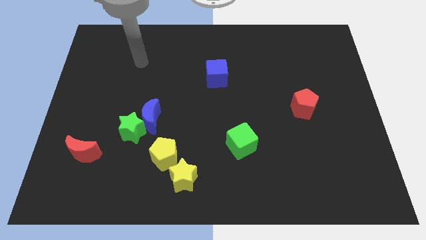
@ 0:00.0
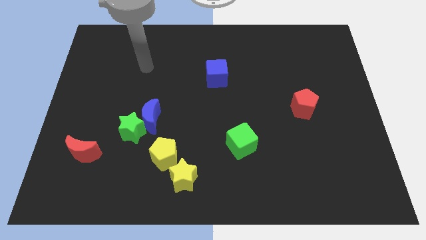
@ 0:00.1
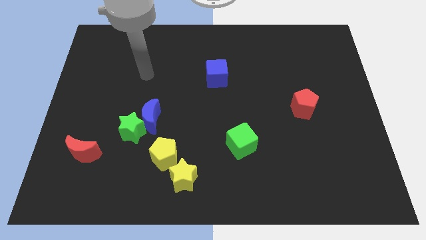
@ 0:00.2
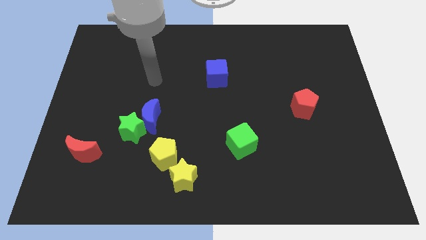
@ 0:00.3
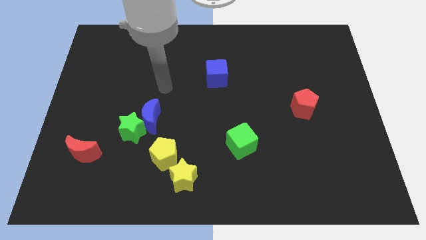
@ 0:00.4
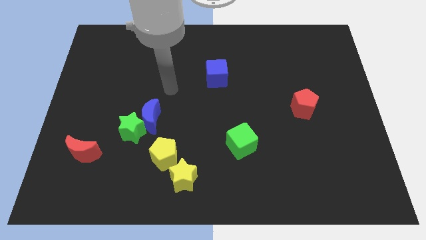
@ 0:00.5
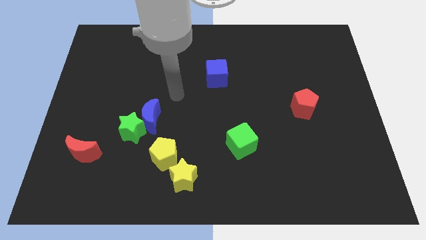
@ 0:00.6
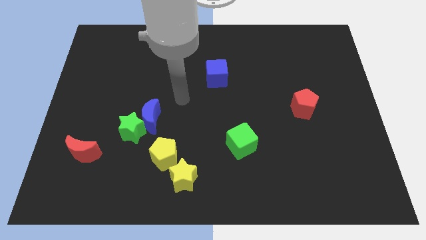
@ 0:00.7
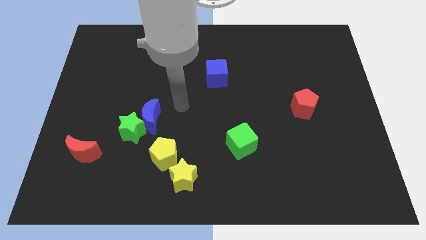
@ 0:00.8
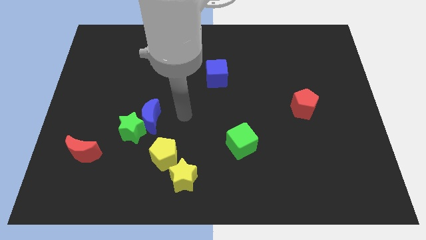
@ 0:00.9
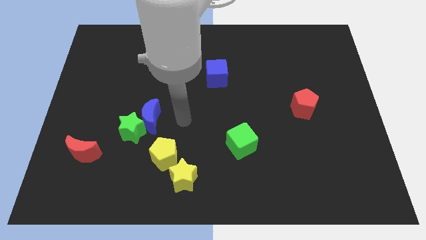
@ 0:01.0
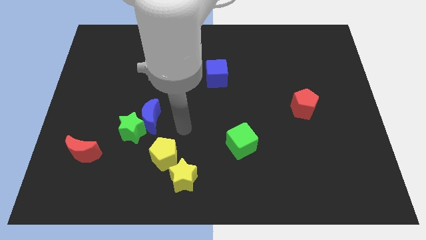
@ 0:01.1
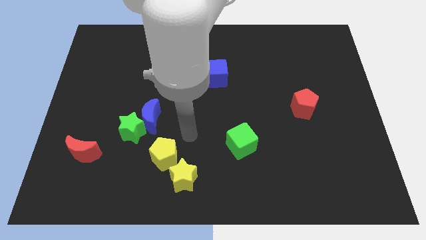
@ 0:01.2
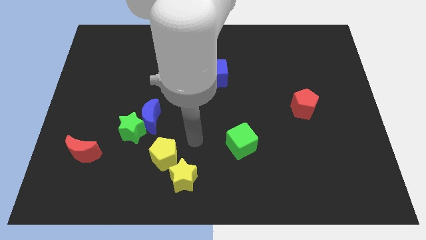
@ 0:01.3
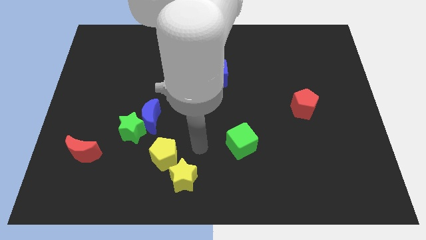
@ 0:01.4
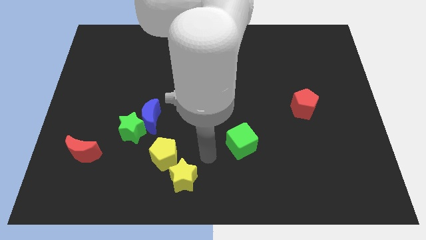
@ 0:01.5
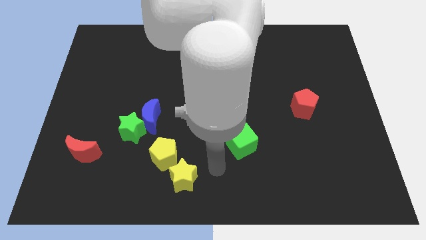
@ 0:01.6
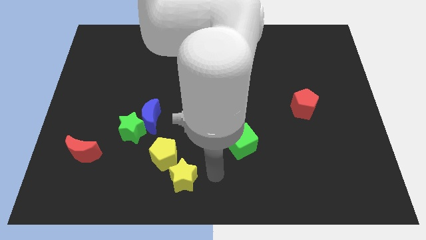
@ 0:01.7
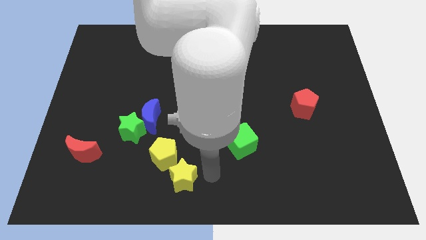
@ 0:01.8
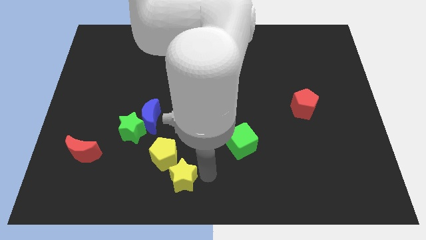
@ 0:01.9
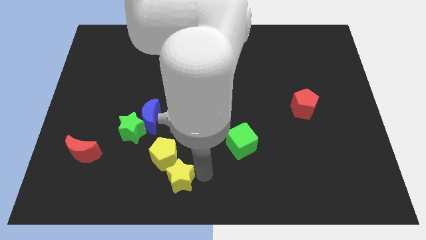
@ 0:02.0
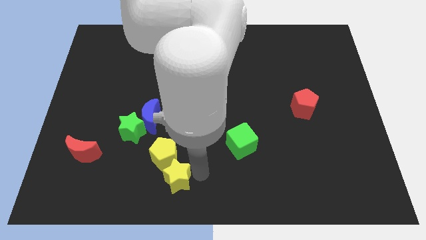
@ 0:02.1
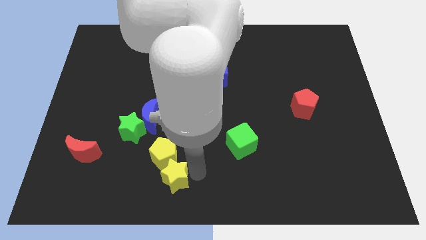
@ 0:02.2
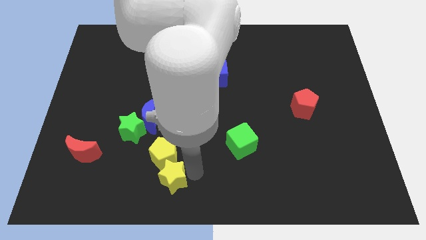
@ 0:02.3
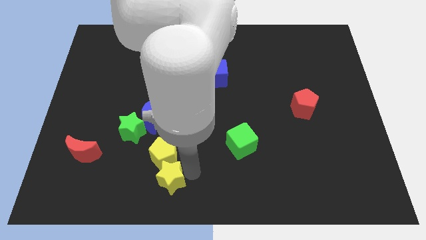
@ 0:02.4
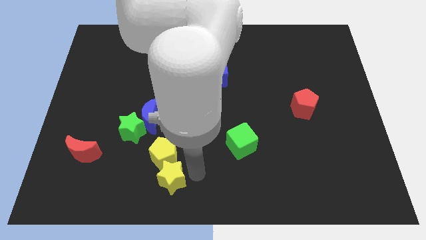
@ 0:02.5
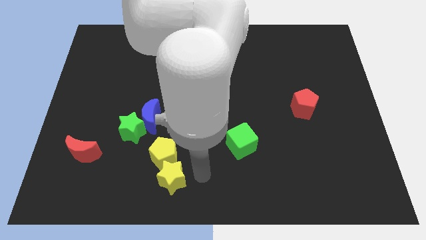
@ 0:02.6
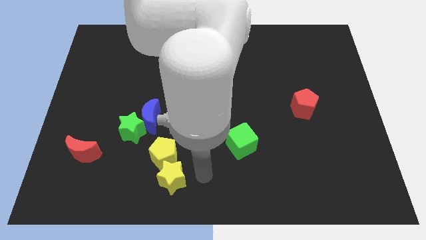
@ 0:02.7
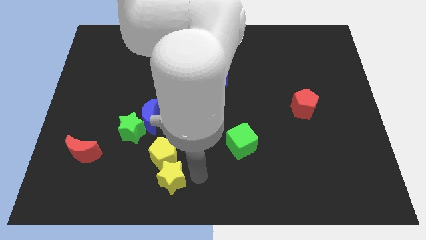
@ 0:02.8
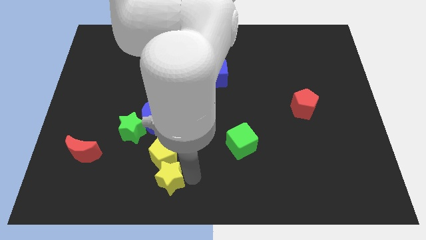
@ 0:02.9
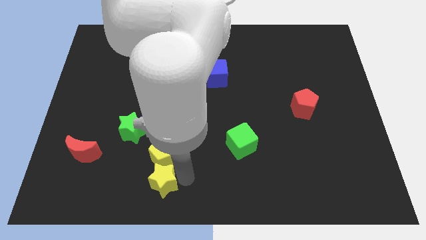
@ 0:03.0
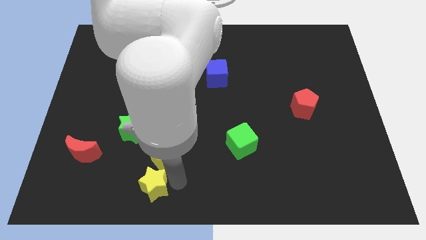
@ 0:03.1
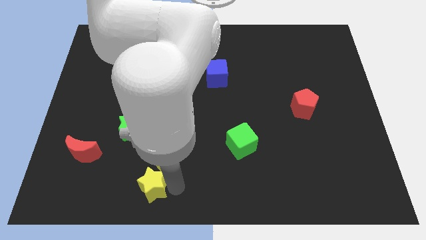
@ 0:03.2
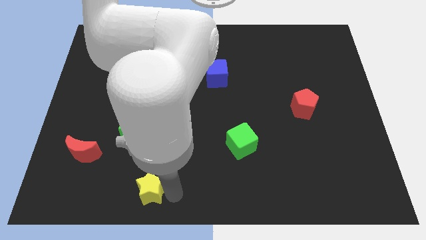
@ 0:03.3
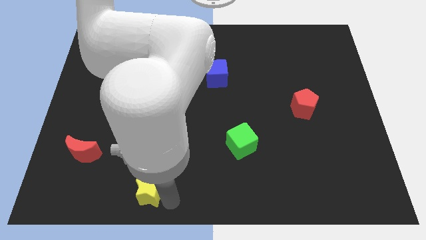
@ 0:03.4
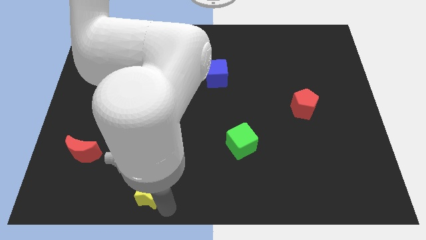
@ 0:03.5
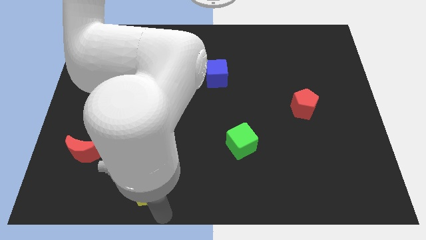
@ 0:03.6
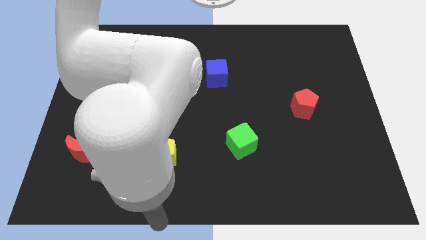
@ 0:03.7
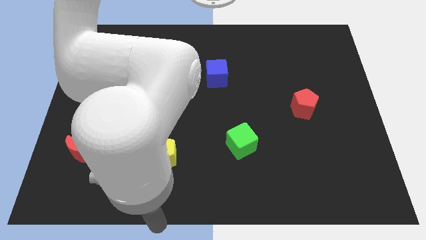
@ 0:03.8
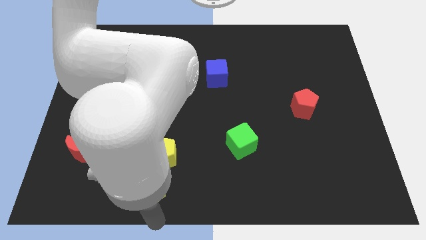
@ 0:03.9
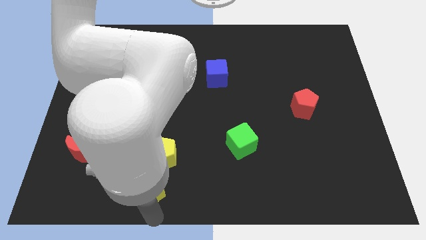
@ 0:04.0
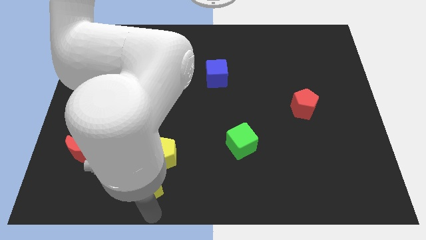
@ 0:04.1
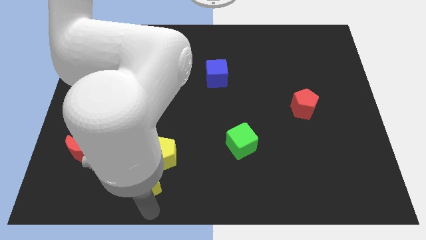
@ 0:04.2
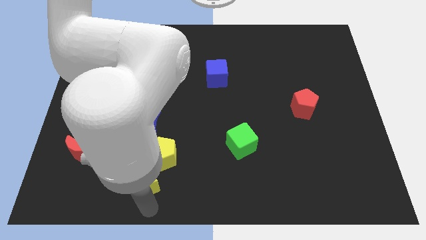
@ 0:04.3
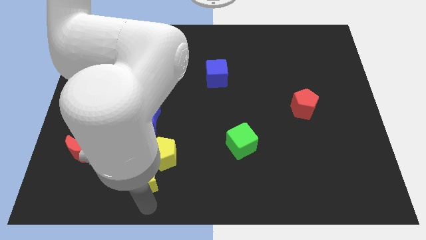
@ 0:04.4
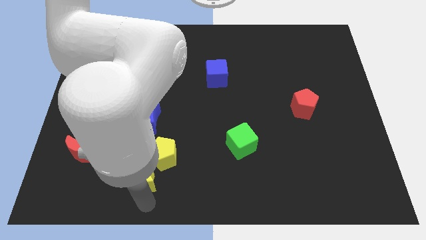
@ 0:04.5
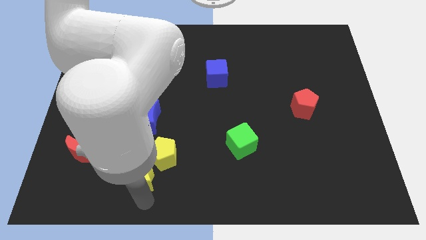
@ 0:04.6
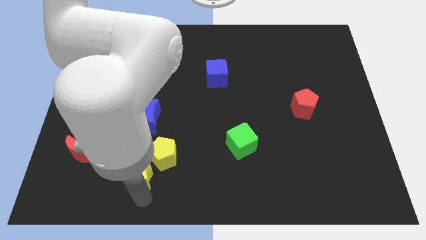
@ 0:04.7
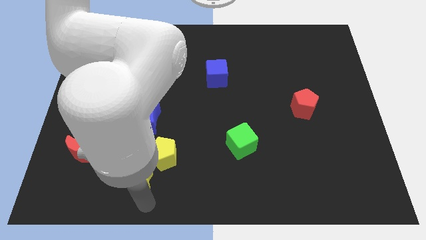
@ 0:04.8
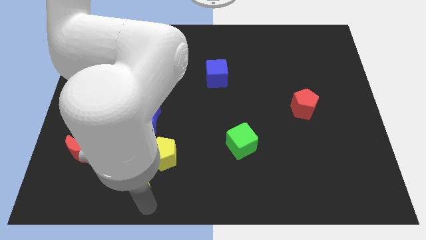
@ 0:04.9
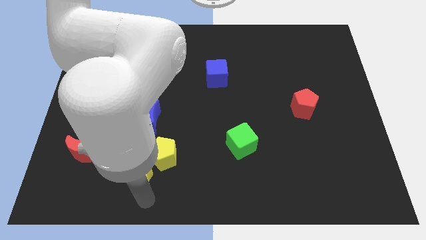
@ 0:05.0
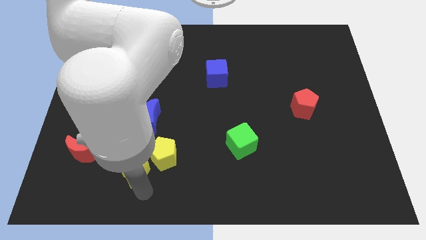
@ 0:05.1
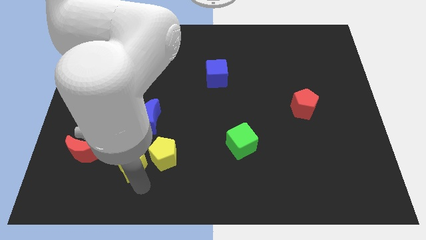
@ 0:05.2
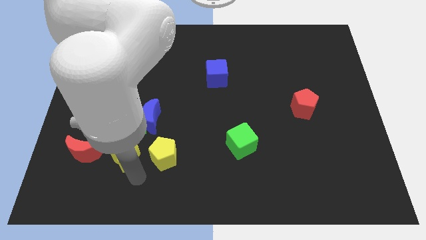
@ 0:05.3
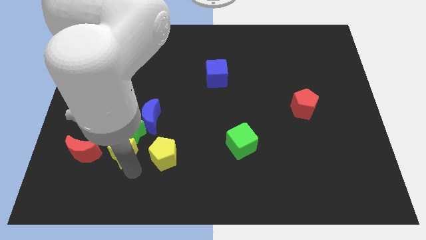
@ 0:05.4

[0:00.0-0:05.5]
push the yellow star towards the green star

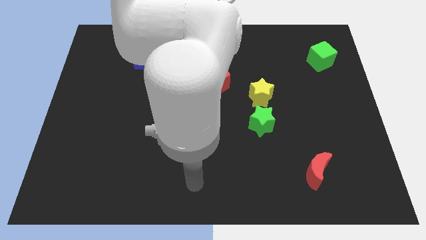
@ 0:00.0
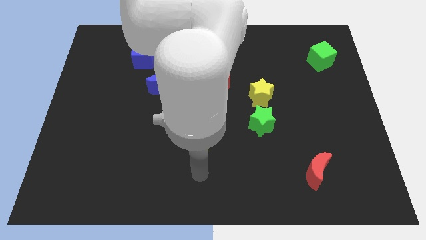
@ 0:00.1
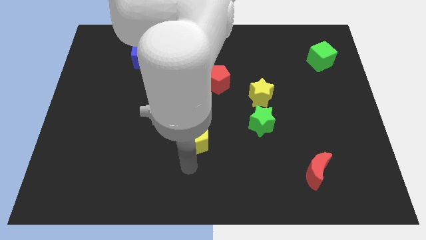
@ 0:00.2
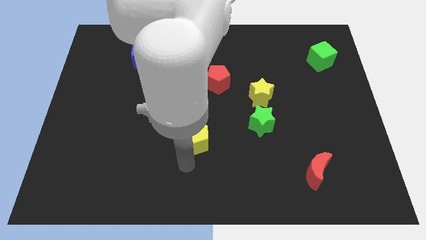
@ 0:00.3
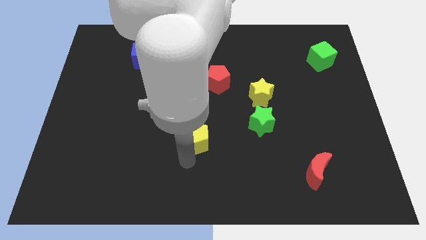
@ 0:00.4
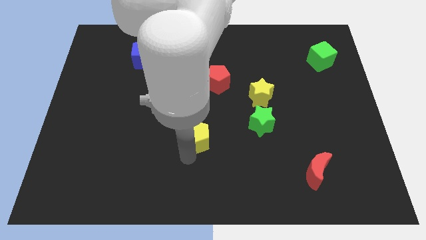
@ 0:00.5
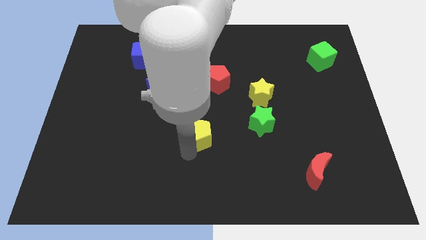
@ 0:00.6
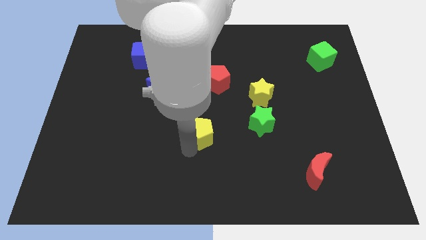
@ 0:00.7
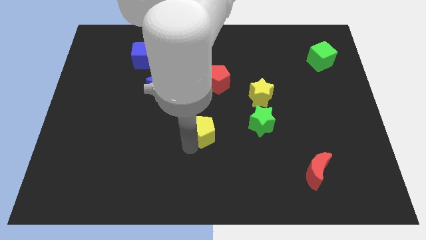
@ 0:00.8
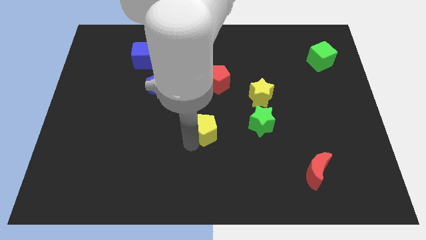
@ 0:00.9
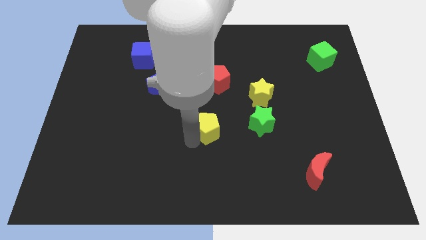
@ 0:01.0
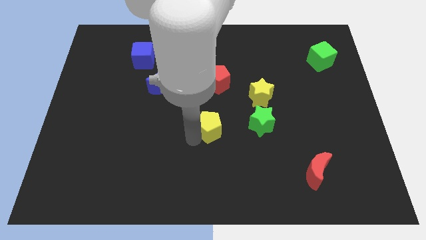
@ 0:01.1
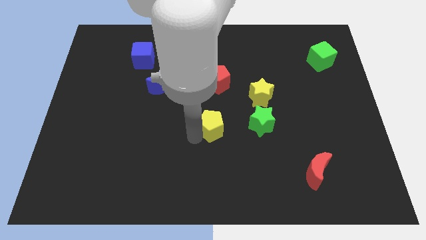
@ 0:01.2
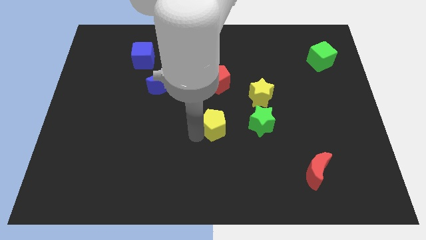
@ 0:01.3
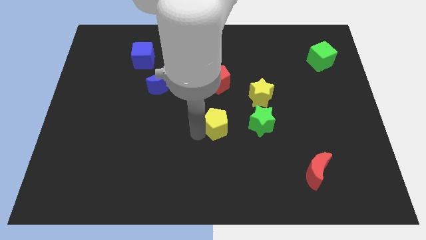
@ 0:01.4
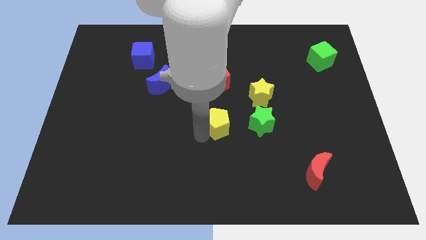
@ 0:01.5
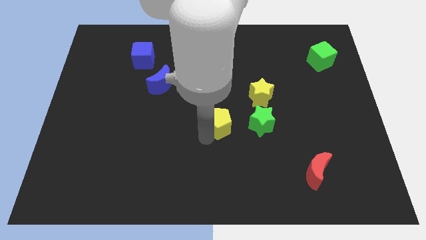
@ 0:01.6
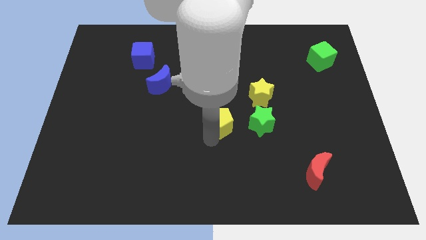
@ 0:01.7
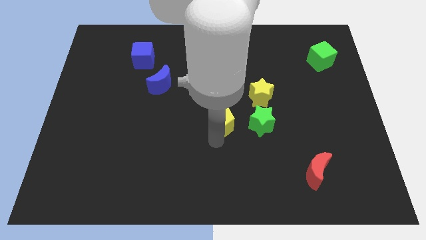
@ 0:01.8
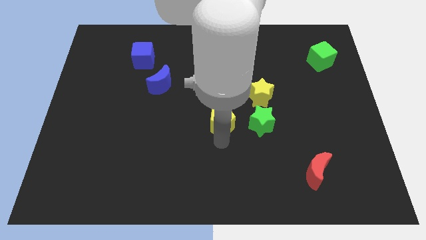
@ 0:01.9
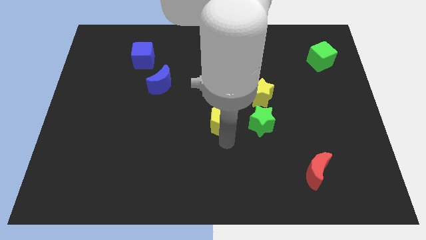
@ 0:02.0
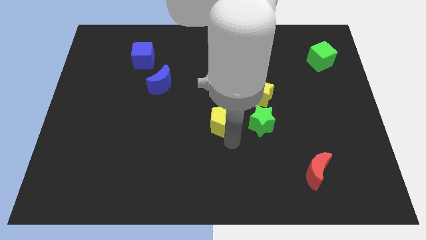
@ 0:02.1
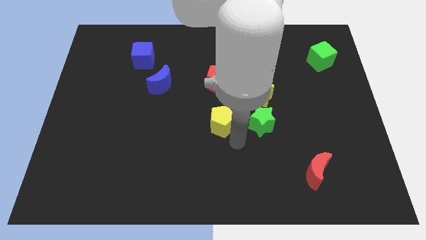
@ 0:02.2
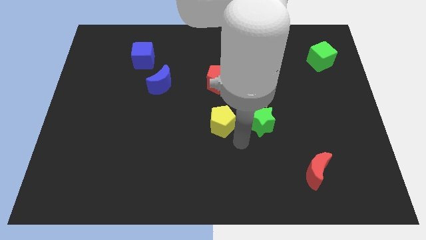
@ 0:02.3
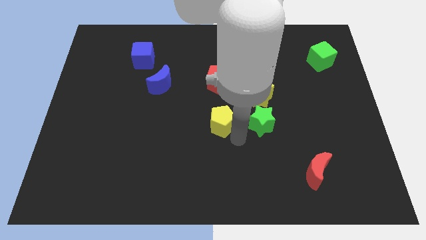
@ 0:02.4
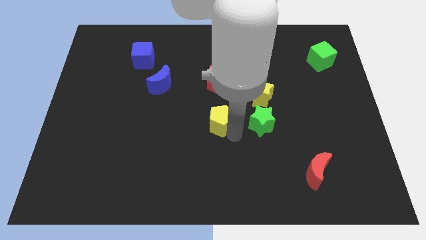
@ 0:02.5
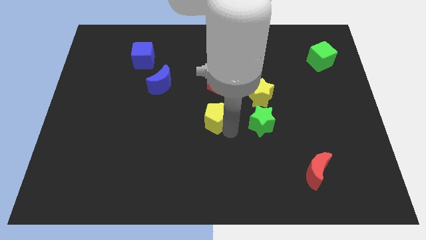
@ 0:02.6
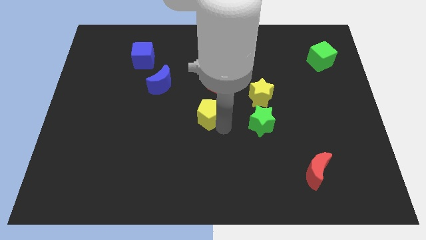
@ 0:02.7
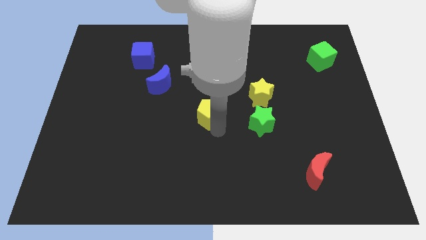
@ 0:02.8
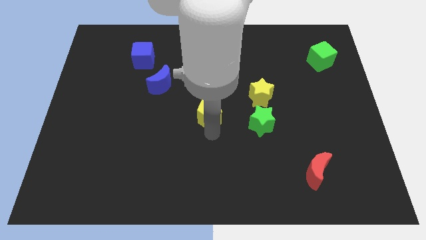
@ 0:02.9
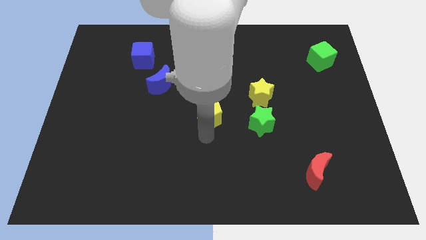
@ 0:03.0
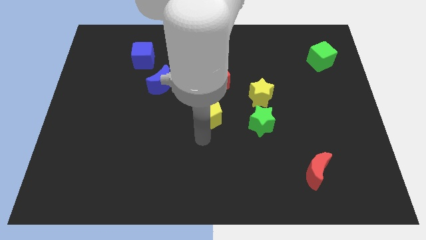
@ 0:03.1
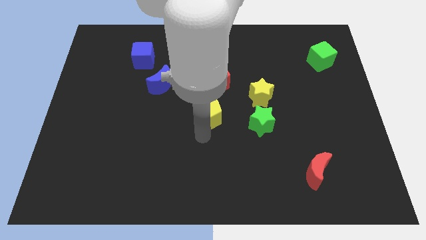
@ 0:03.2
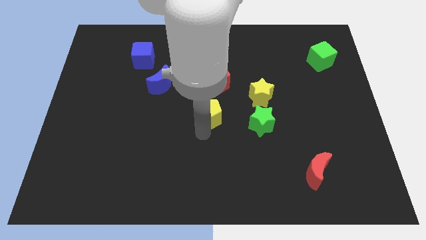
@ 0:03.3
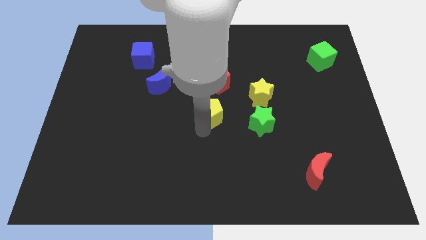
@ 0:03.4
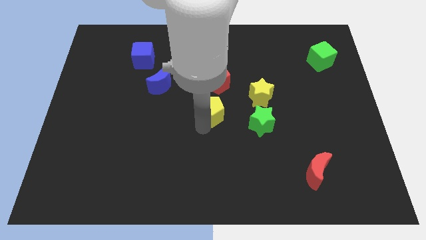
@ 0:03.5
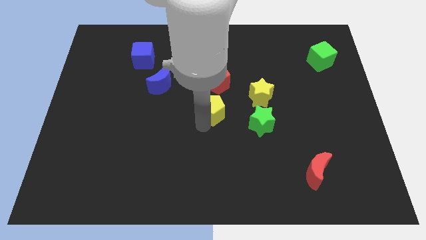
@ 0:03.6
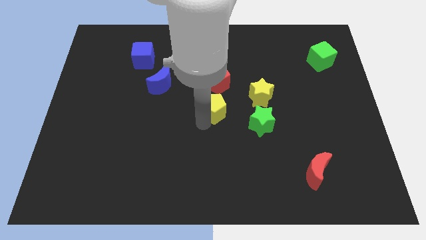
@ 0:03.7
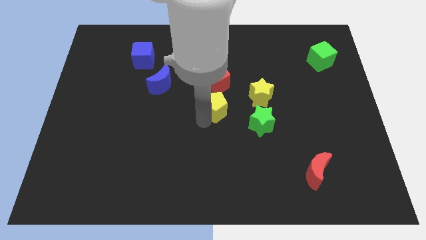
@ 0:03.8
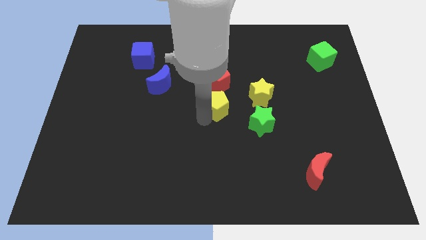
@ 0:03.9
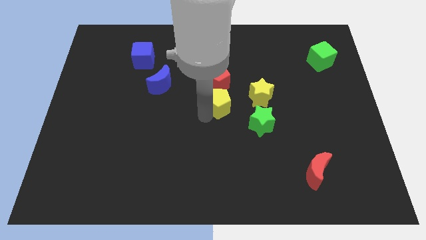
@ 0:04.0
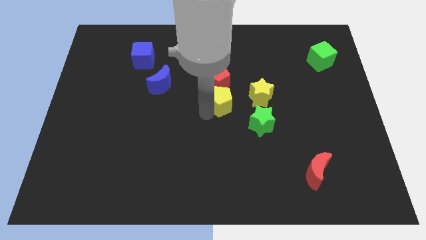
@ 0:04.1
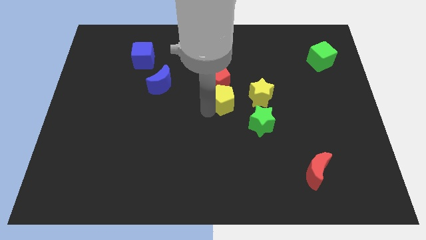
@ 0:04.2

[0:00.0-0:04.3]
move the yellow pentagon close to the red pentagon
